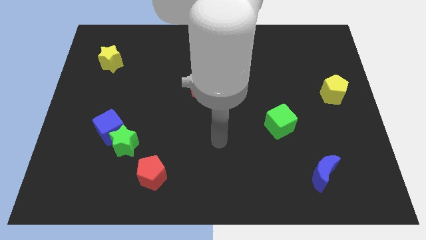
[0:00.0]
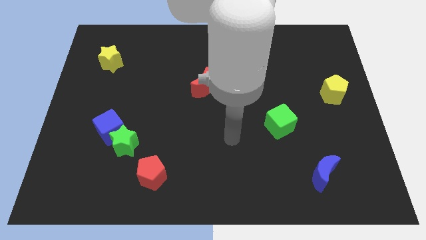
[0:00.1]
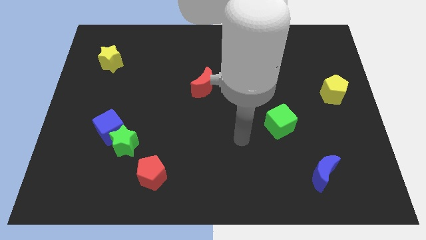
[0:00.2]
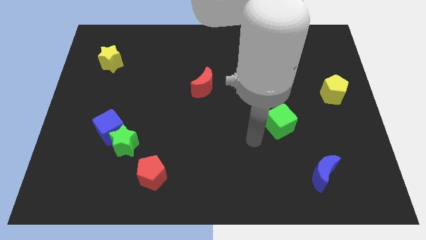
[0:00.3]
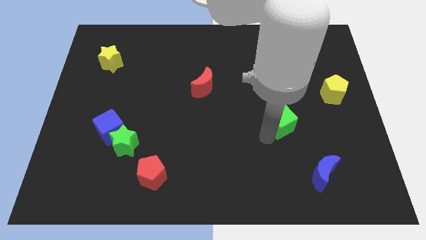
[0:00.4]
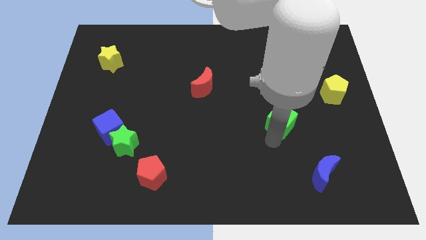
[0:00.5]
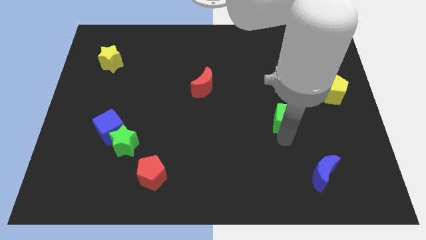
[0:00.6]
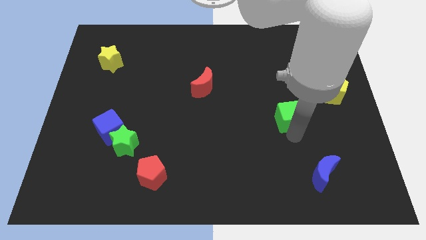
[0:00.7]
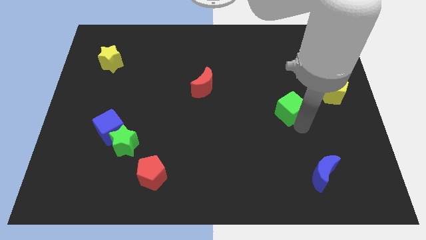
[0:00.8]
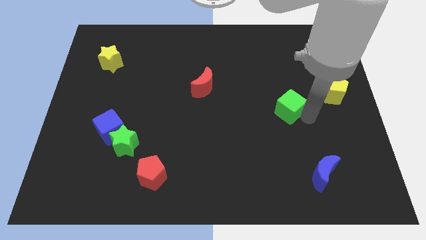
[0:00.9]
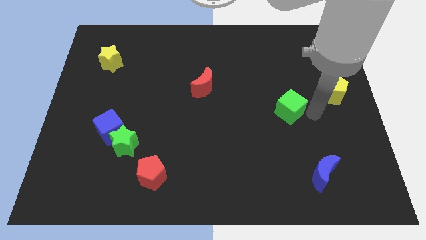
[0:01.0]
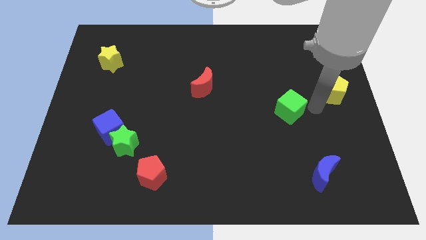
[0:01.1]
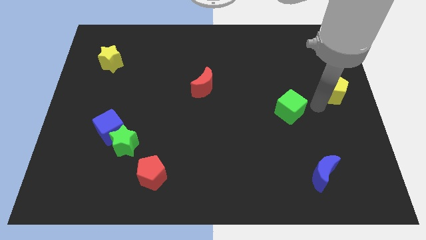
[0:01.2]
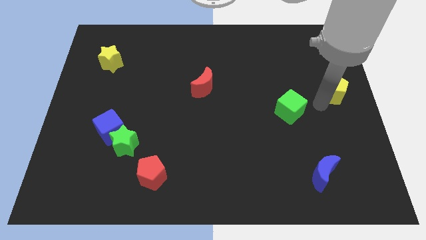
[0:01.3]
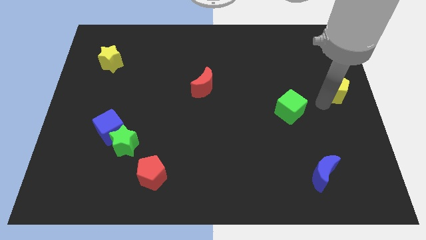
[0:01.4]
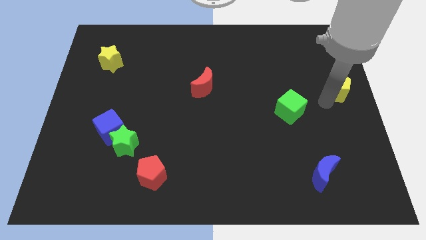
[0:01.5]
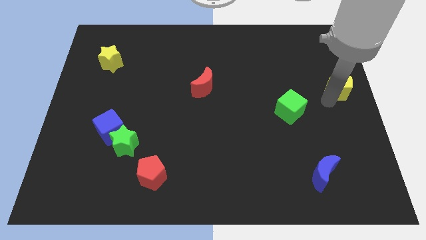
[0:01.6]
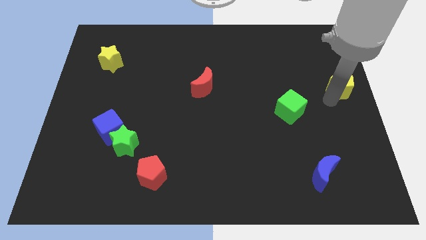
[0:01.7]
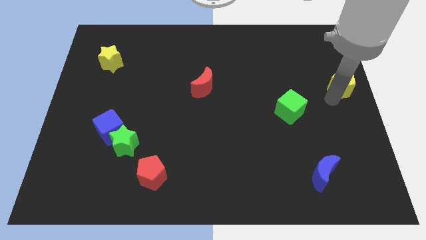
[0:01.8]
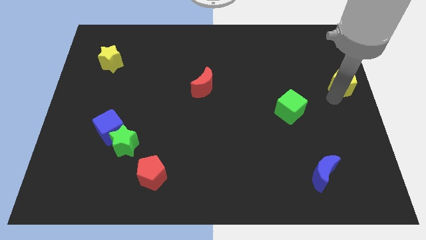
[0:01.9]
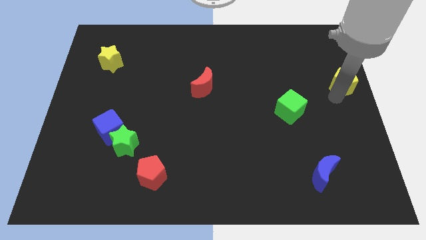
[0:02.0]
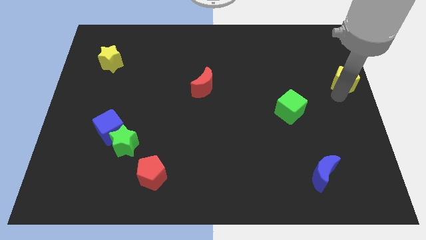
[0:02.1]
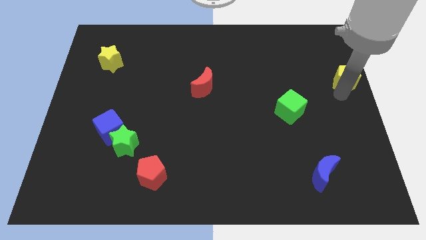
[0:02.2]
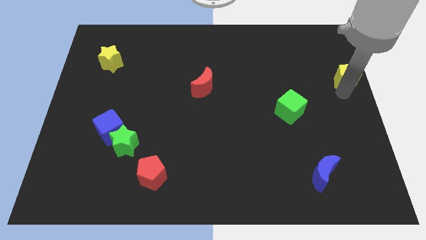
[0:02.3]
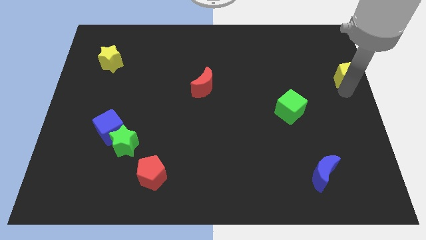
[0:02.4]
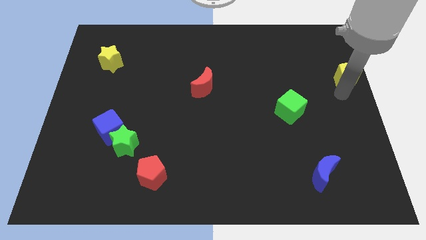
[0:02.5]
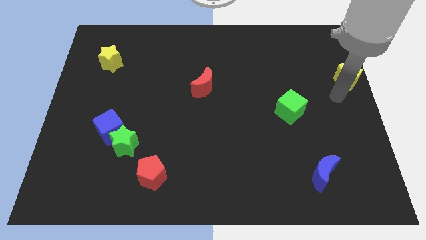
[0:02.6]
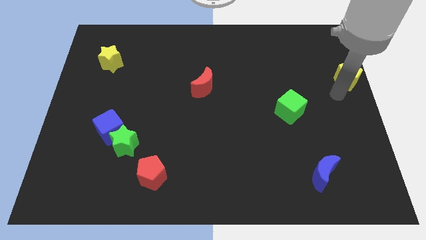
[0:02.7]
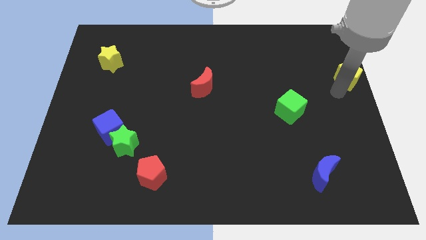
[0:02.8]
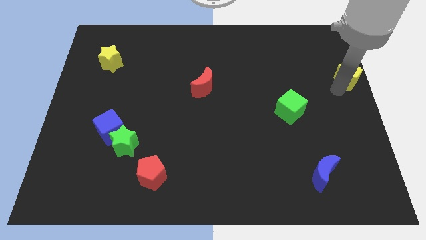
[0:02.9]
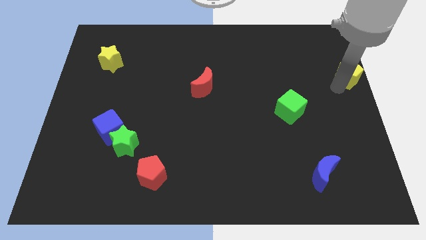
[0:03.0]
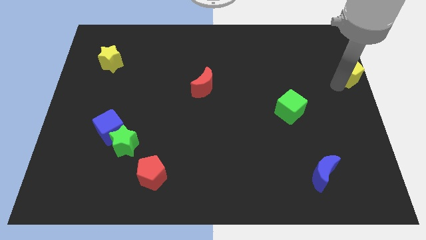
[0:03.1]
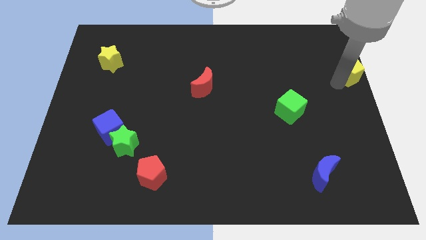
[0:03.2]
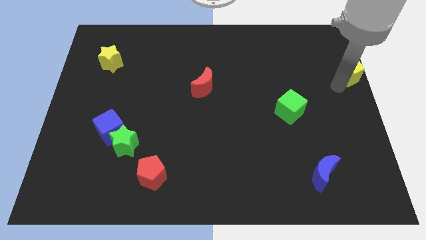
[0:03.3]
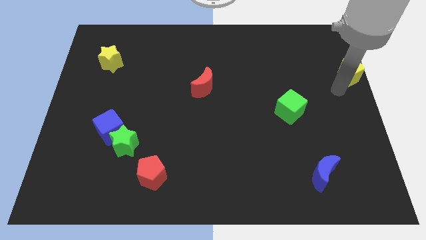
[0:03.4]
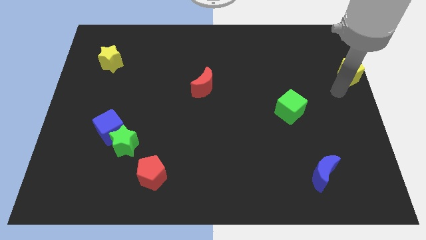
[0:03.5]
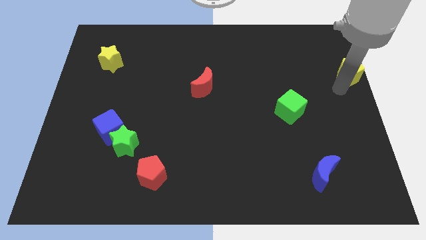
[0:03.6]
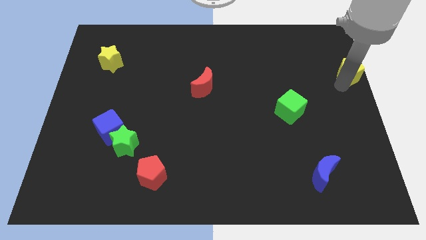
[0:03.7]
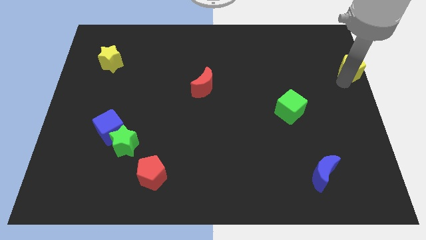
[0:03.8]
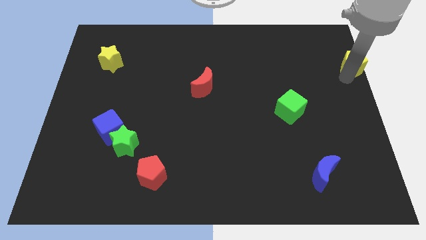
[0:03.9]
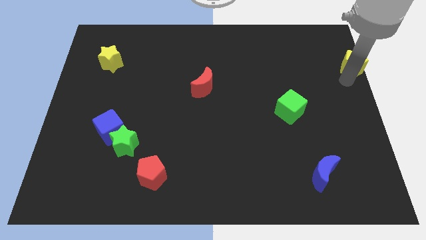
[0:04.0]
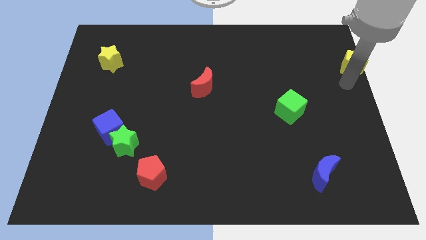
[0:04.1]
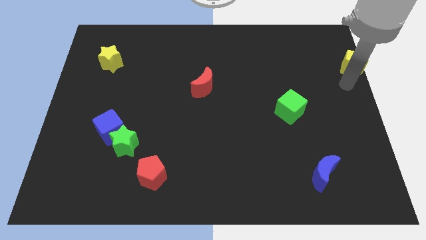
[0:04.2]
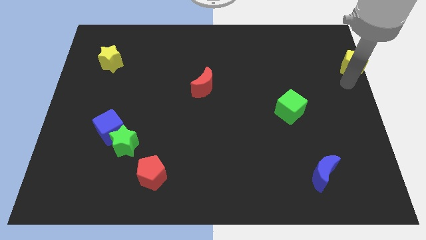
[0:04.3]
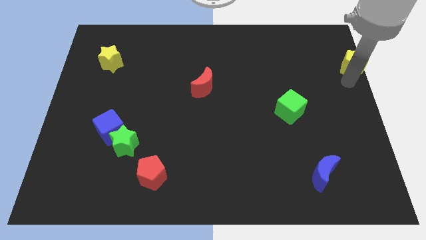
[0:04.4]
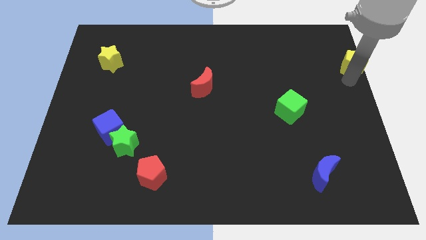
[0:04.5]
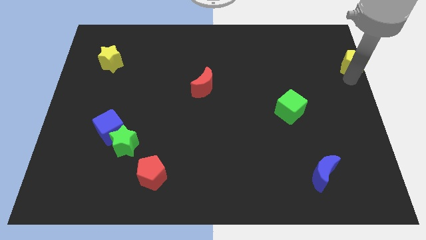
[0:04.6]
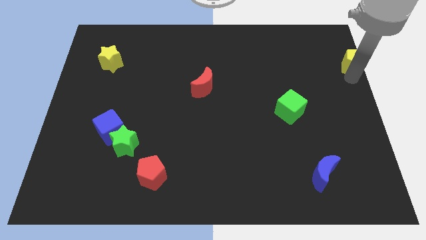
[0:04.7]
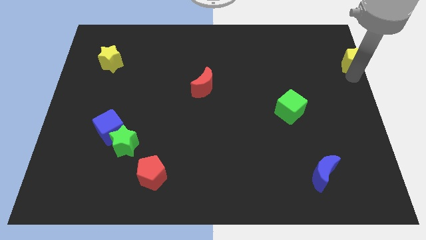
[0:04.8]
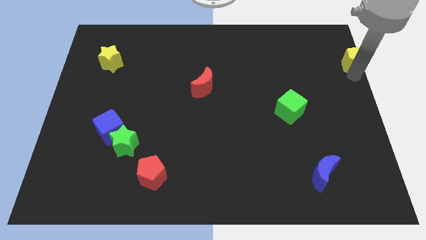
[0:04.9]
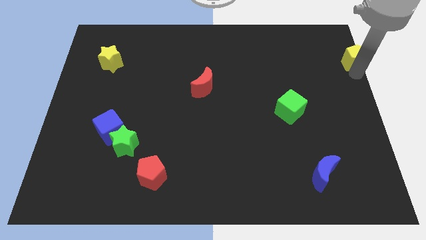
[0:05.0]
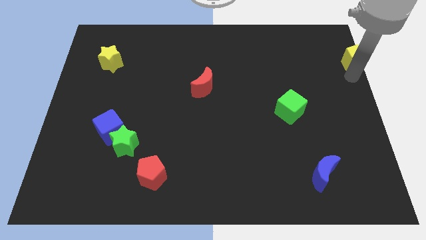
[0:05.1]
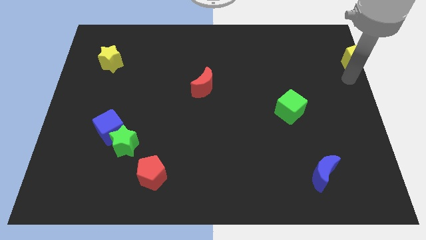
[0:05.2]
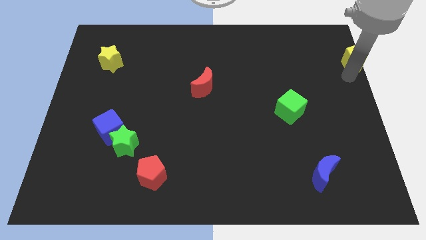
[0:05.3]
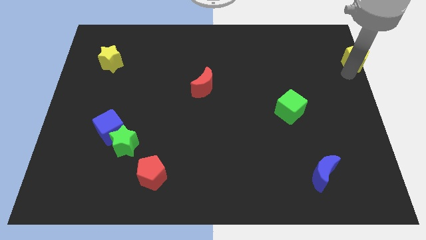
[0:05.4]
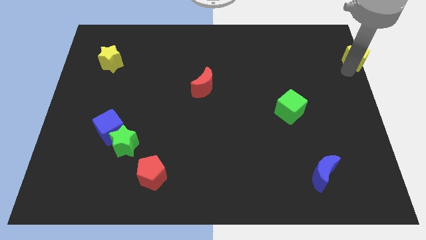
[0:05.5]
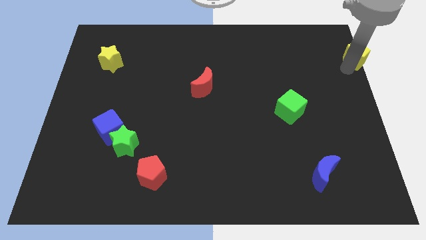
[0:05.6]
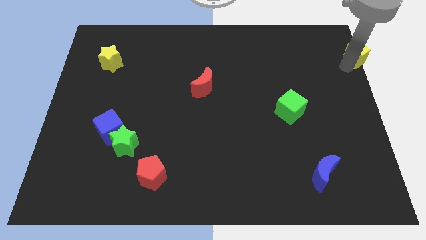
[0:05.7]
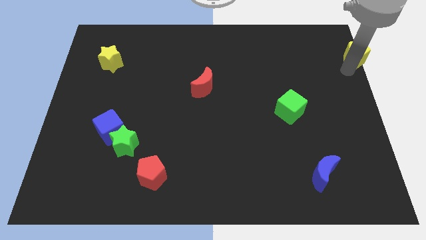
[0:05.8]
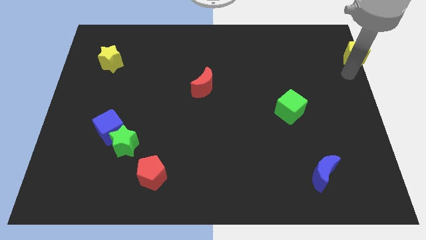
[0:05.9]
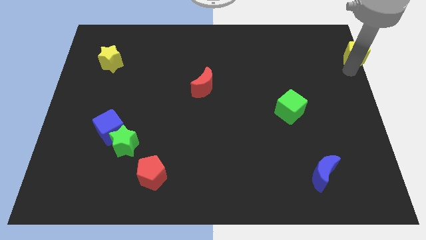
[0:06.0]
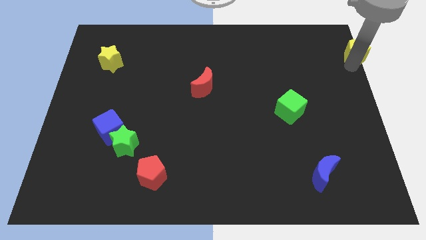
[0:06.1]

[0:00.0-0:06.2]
push the yellow pentagon to the top right corner

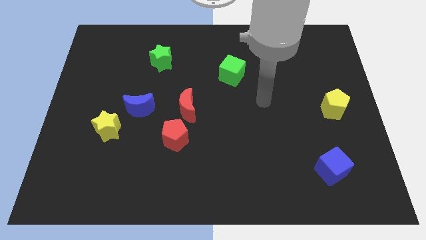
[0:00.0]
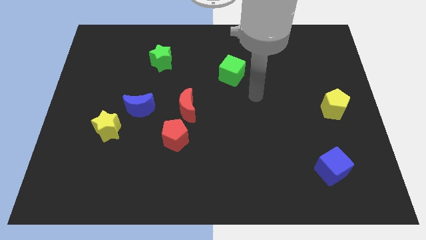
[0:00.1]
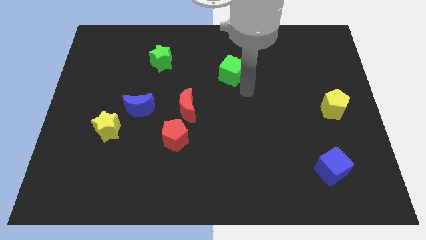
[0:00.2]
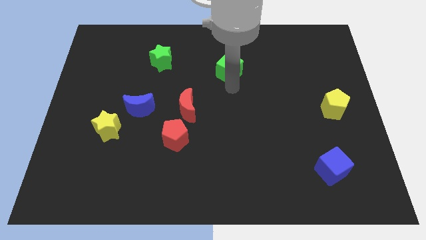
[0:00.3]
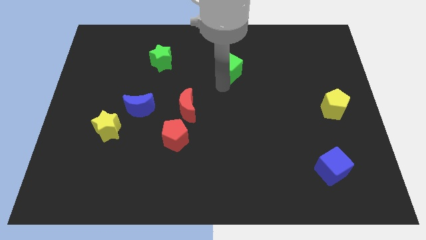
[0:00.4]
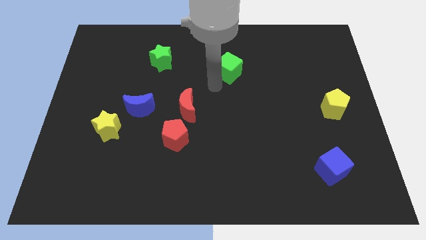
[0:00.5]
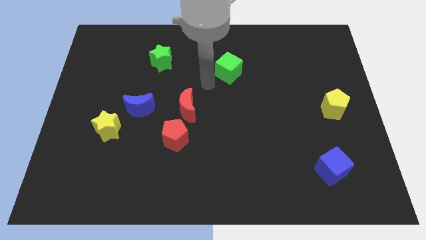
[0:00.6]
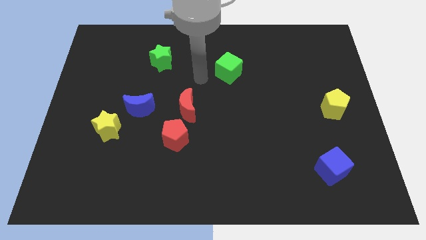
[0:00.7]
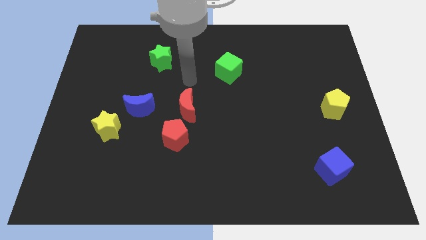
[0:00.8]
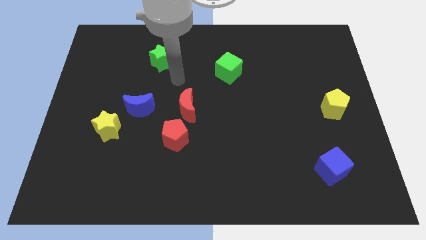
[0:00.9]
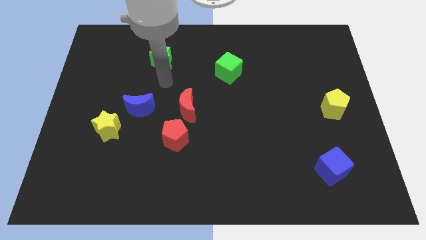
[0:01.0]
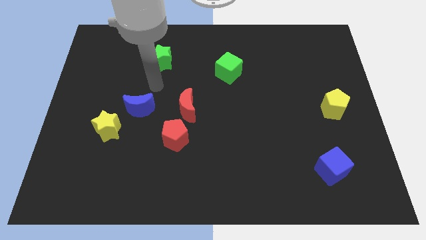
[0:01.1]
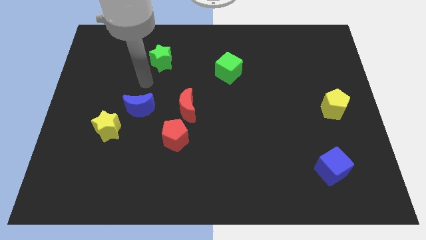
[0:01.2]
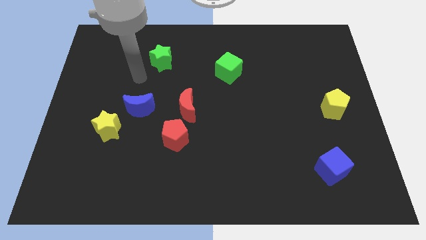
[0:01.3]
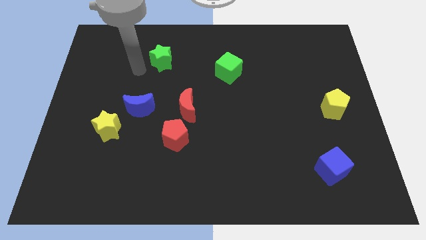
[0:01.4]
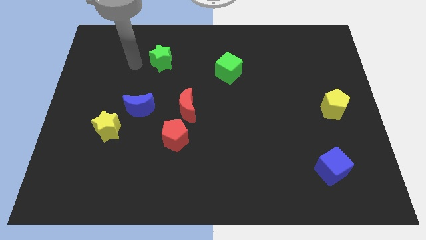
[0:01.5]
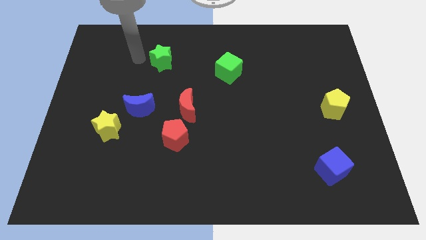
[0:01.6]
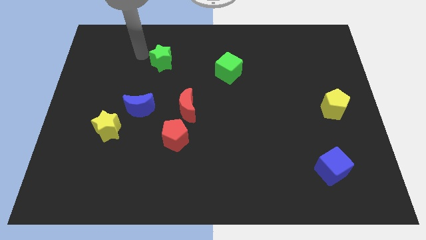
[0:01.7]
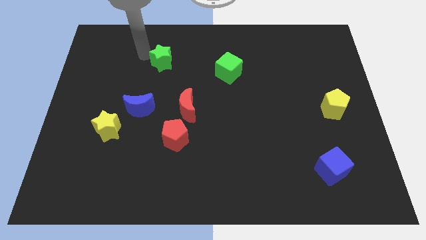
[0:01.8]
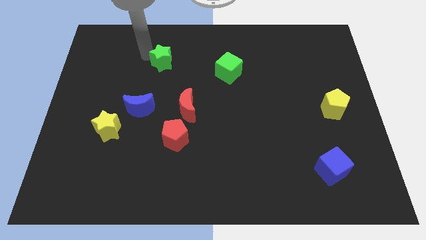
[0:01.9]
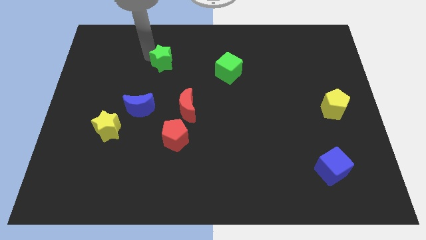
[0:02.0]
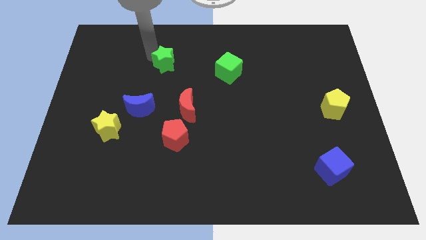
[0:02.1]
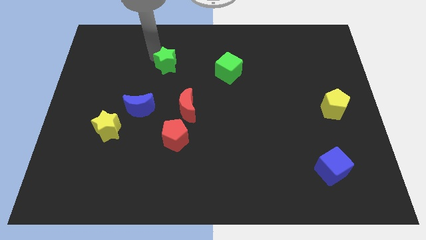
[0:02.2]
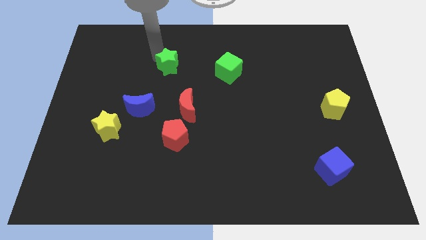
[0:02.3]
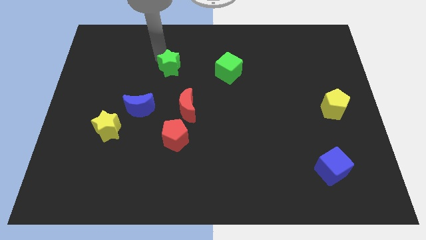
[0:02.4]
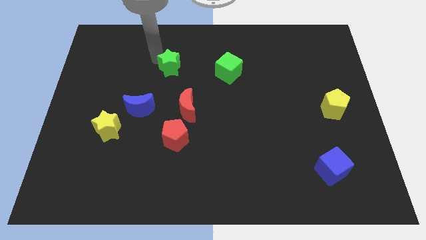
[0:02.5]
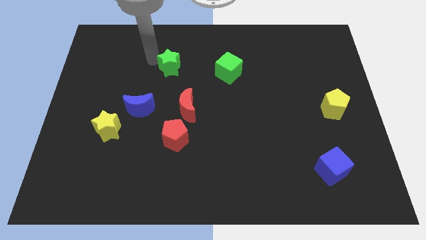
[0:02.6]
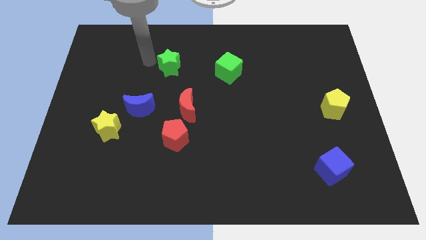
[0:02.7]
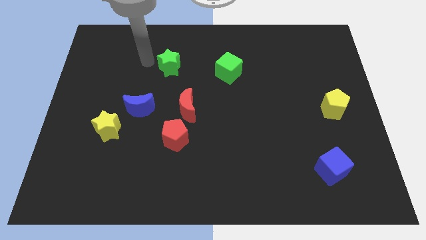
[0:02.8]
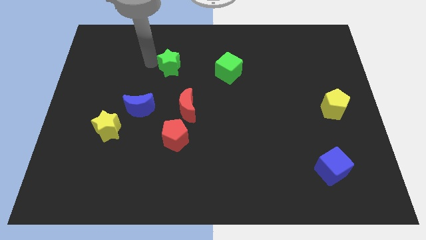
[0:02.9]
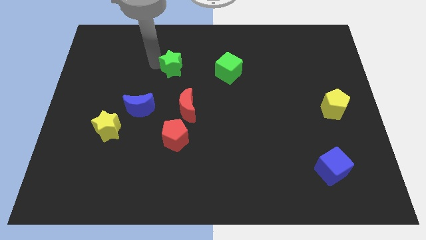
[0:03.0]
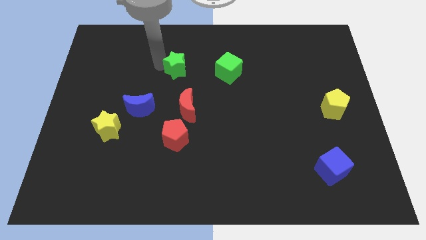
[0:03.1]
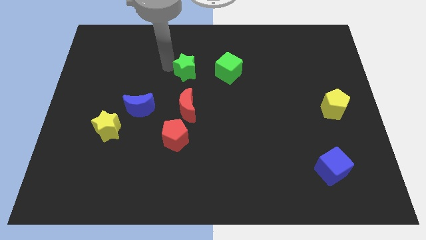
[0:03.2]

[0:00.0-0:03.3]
slide the green star to the middle of the board
